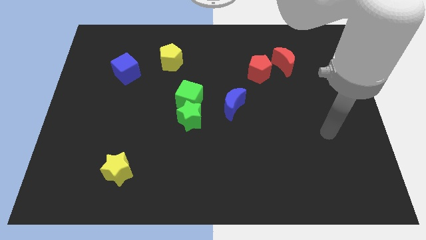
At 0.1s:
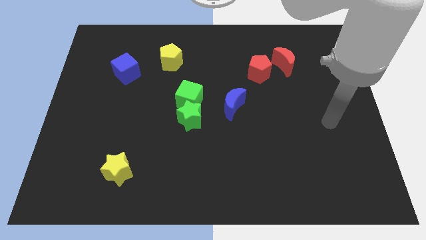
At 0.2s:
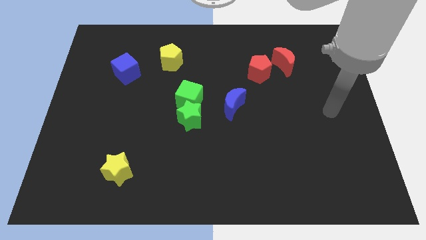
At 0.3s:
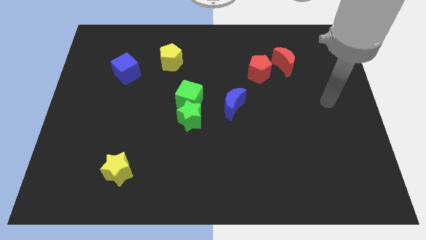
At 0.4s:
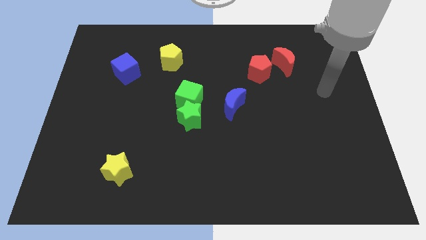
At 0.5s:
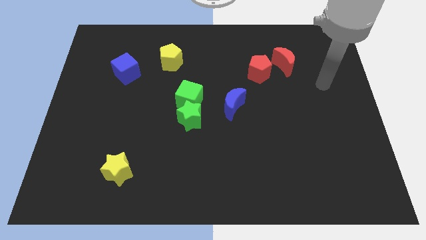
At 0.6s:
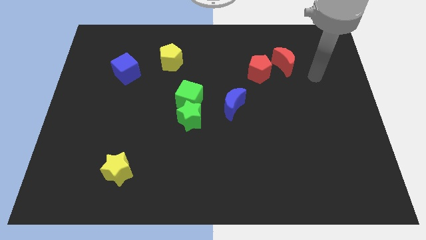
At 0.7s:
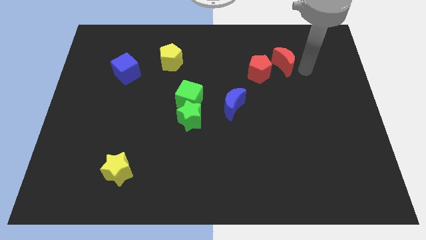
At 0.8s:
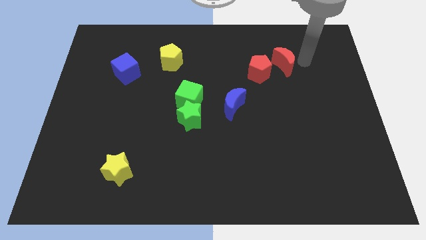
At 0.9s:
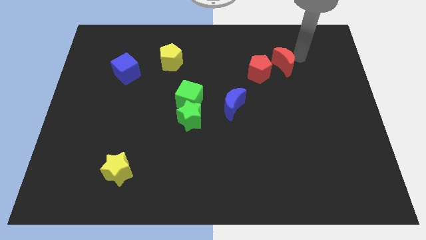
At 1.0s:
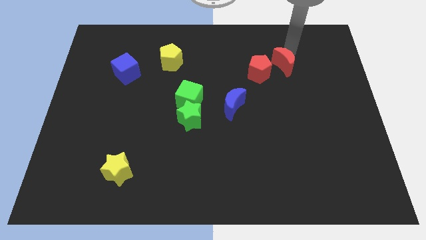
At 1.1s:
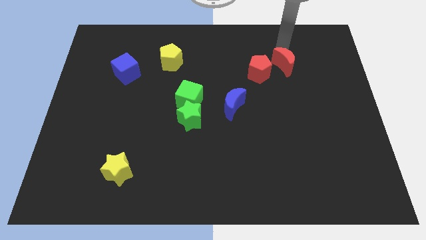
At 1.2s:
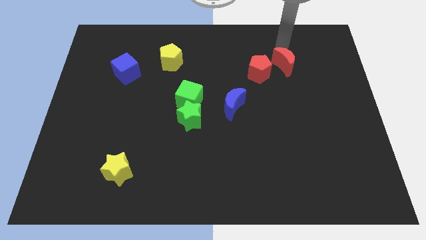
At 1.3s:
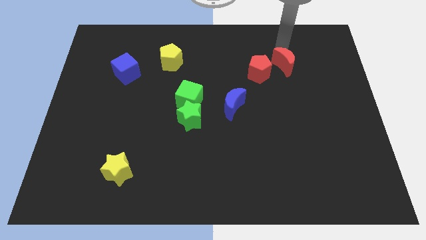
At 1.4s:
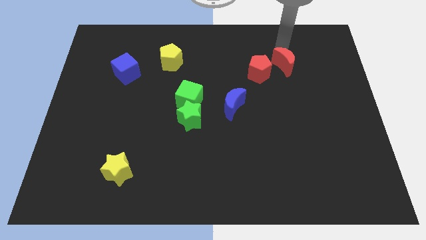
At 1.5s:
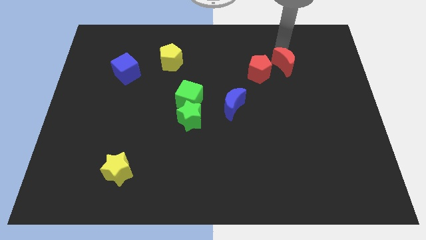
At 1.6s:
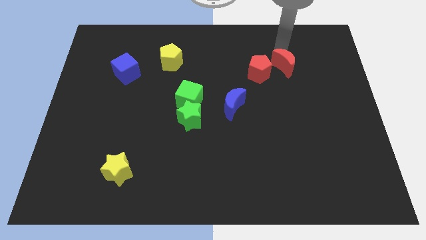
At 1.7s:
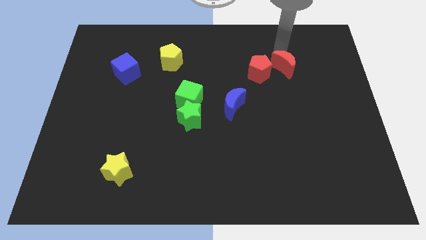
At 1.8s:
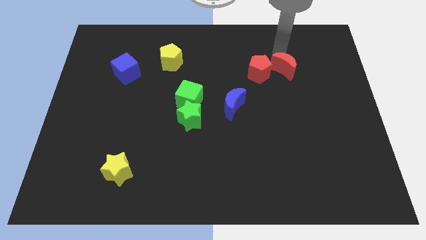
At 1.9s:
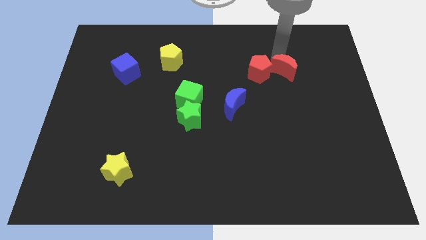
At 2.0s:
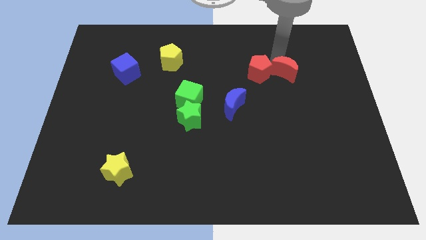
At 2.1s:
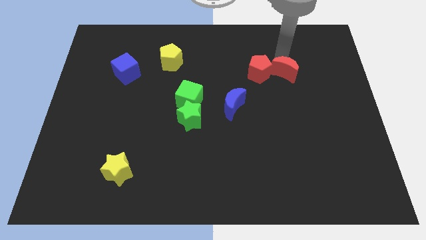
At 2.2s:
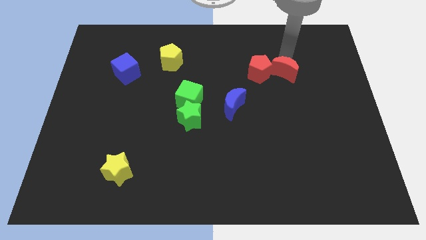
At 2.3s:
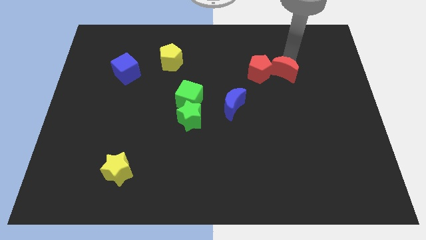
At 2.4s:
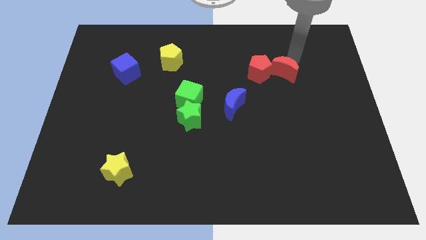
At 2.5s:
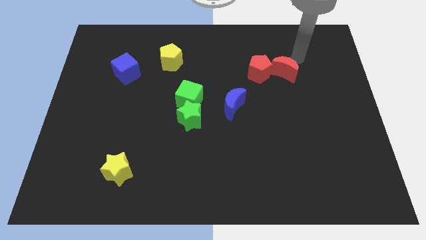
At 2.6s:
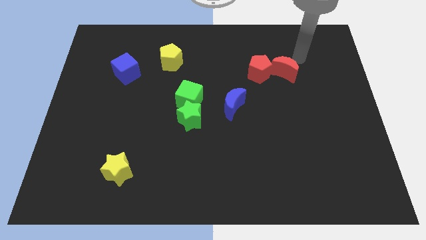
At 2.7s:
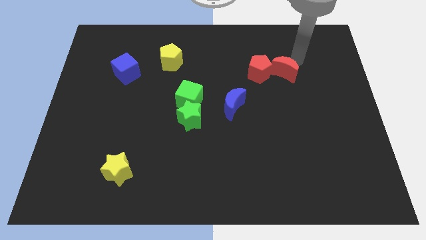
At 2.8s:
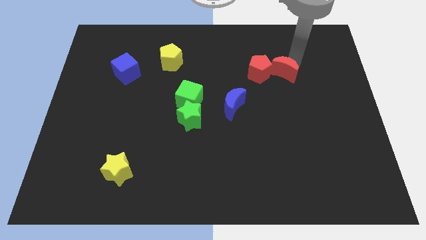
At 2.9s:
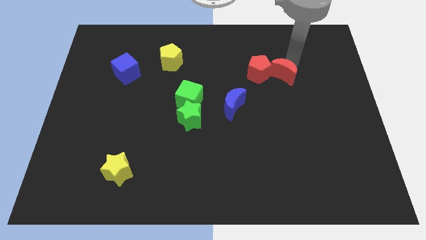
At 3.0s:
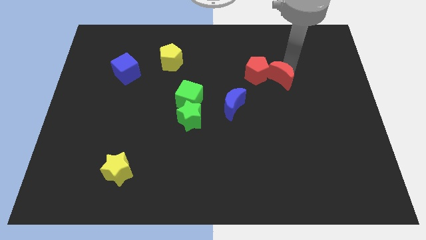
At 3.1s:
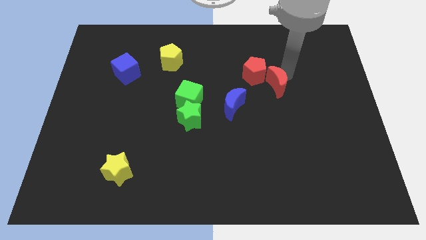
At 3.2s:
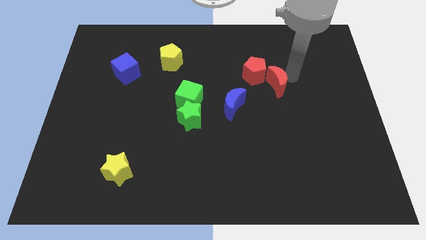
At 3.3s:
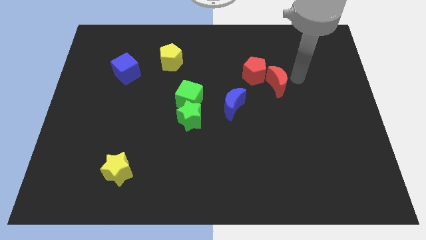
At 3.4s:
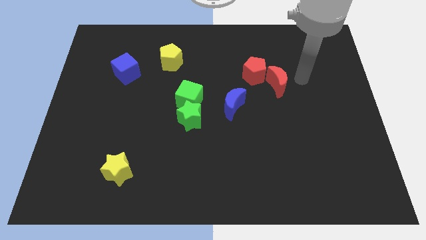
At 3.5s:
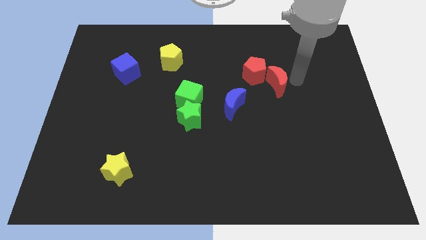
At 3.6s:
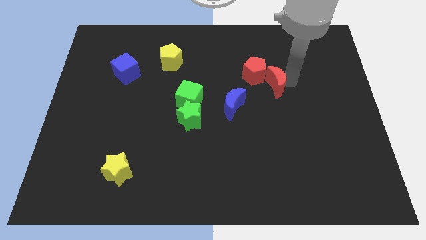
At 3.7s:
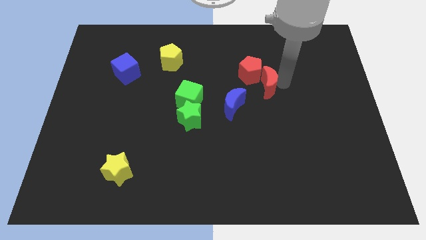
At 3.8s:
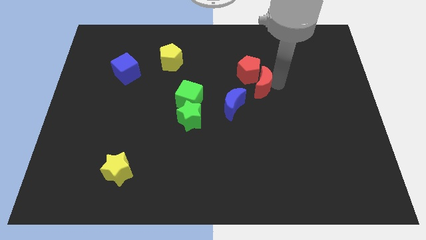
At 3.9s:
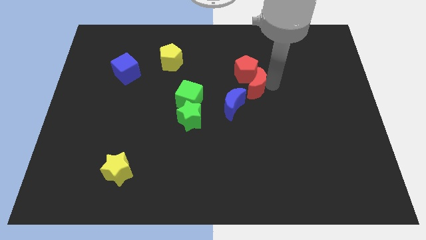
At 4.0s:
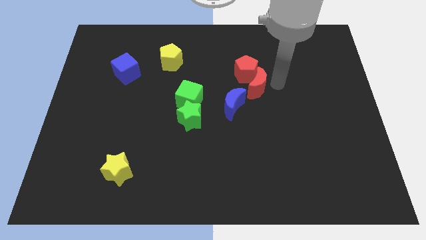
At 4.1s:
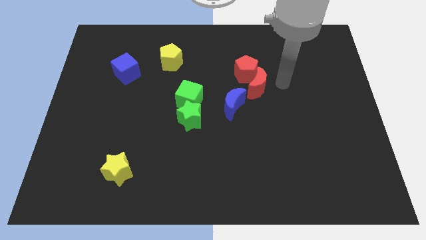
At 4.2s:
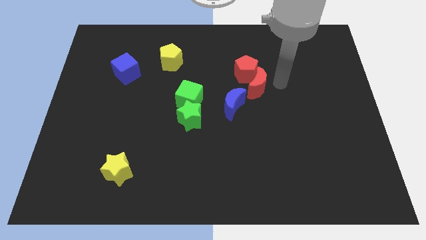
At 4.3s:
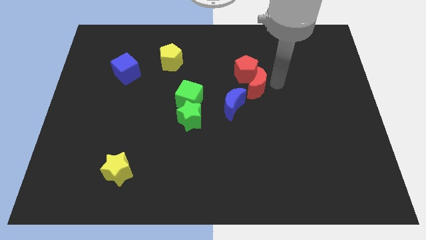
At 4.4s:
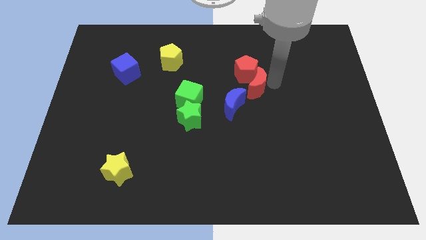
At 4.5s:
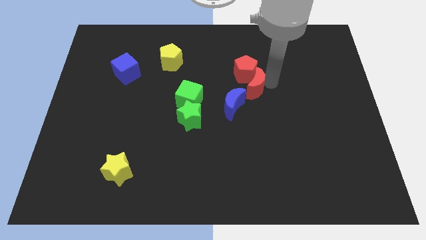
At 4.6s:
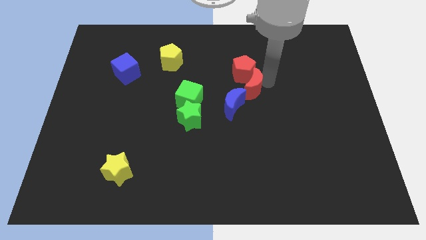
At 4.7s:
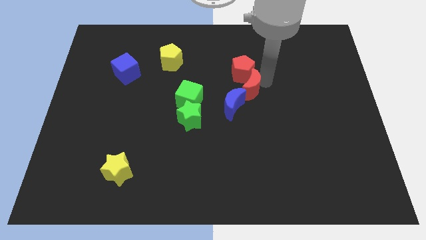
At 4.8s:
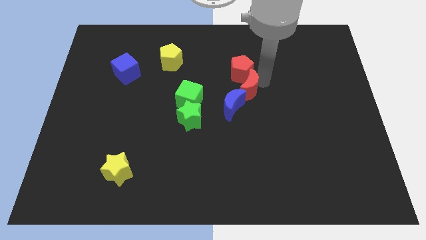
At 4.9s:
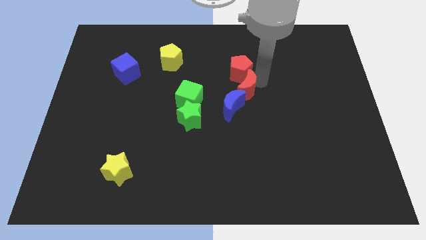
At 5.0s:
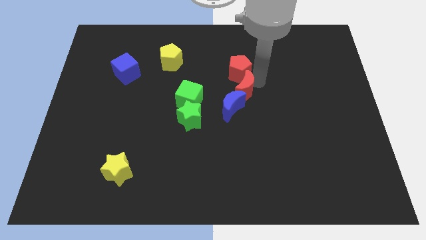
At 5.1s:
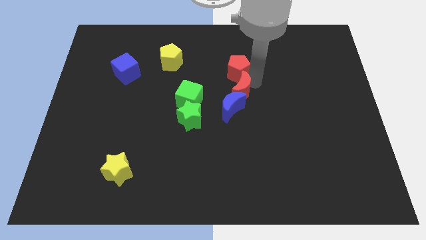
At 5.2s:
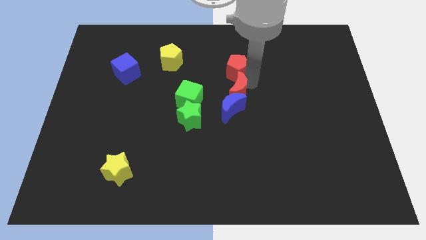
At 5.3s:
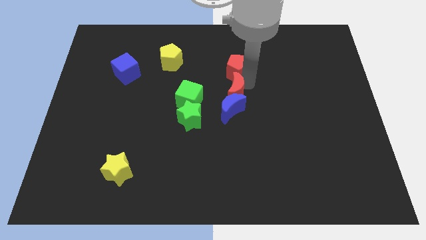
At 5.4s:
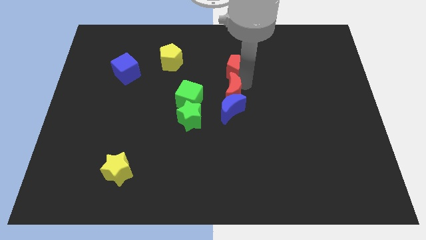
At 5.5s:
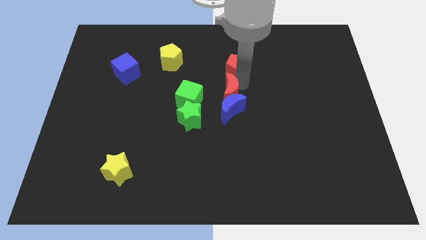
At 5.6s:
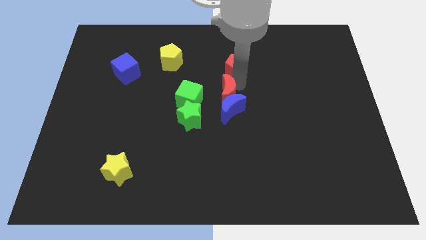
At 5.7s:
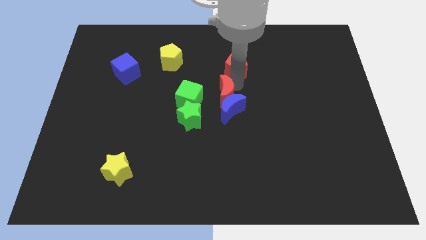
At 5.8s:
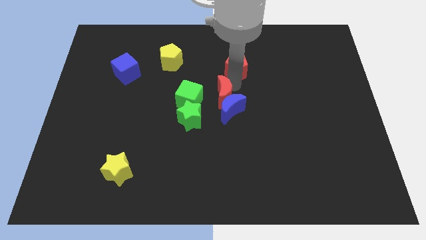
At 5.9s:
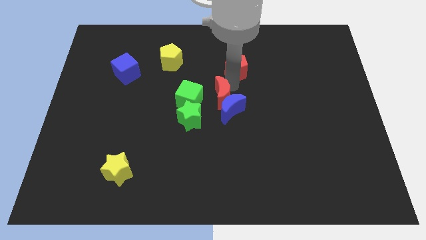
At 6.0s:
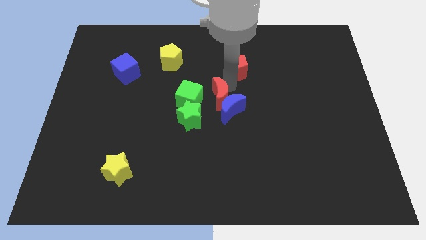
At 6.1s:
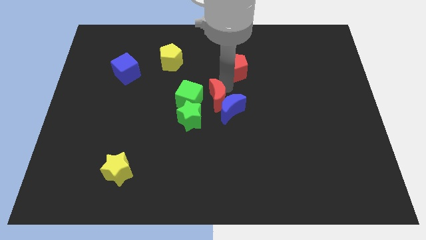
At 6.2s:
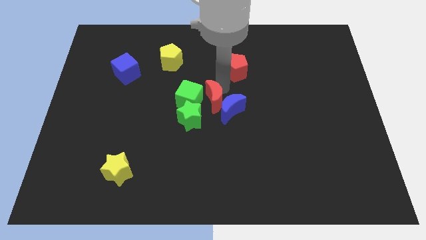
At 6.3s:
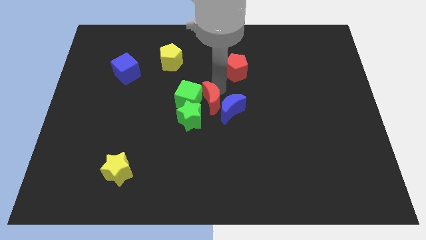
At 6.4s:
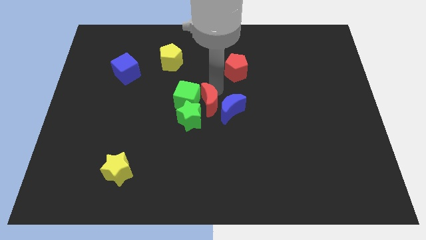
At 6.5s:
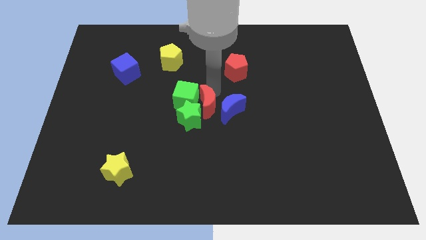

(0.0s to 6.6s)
move the red moon to the green star

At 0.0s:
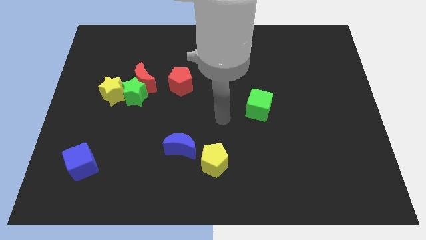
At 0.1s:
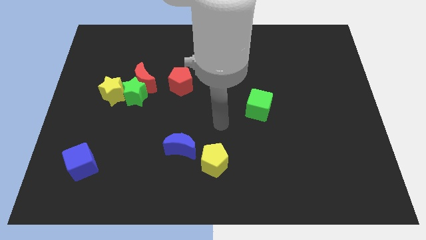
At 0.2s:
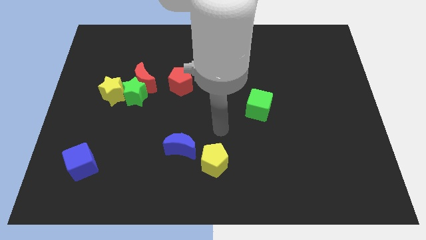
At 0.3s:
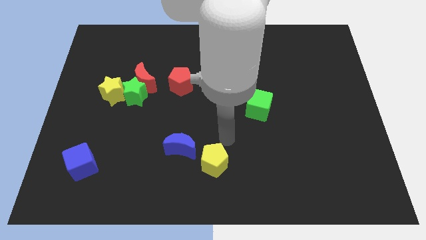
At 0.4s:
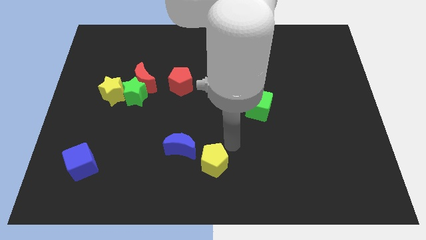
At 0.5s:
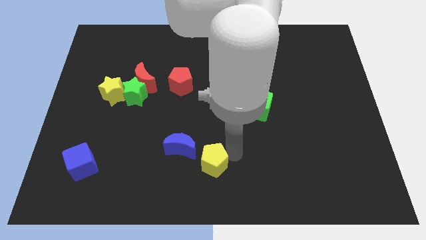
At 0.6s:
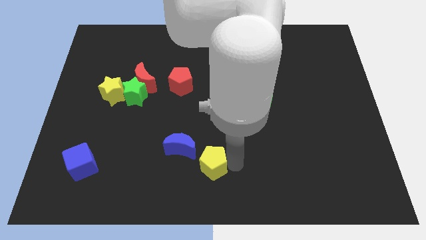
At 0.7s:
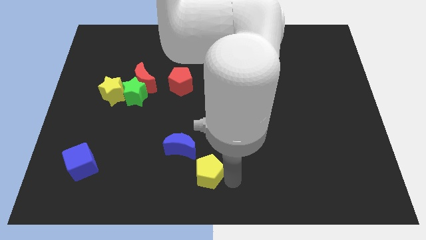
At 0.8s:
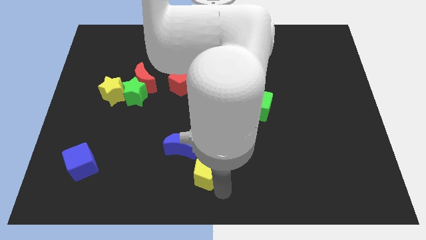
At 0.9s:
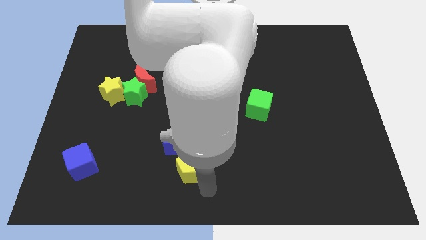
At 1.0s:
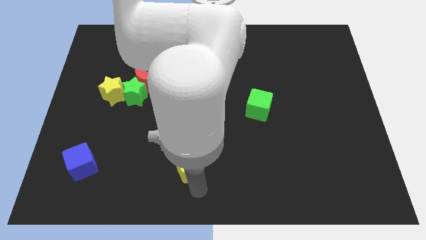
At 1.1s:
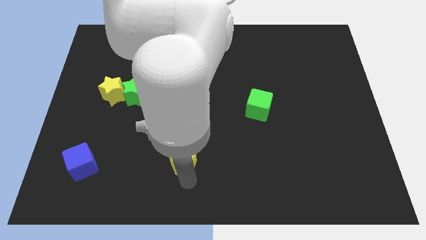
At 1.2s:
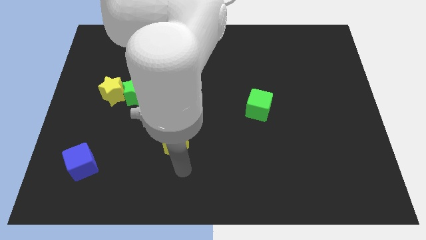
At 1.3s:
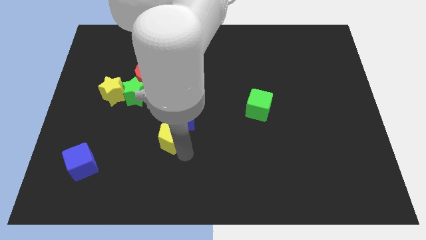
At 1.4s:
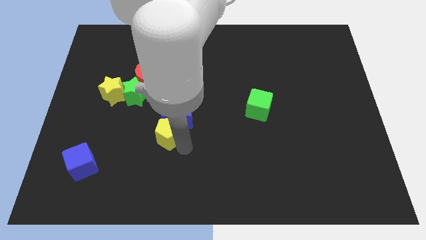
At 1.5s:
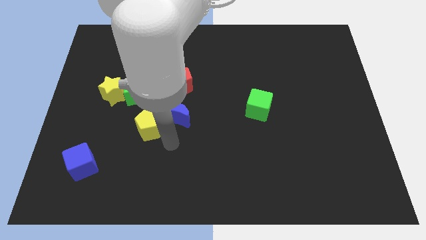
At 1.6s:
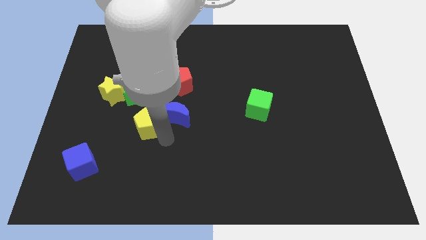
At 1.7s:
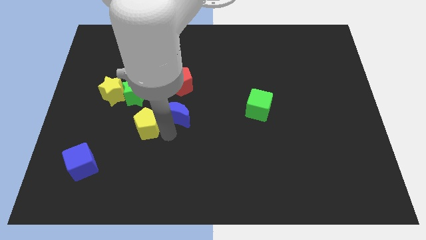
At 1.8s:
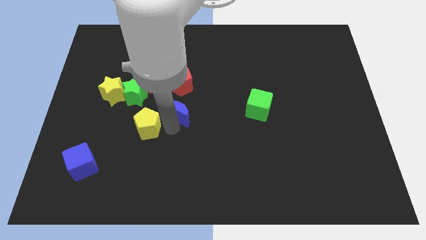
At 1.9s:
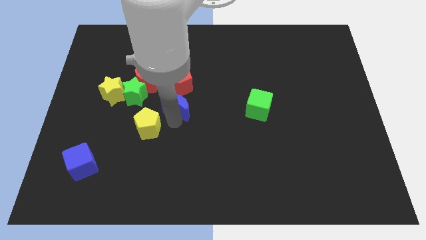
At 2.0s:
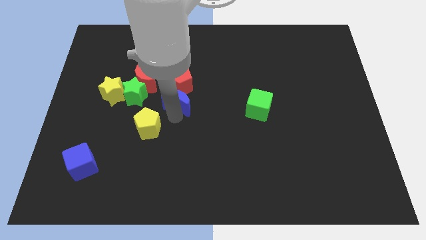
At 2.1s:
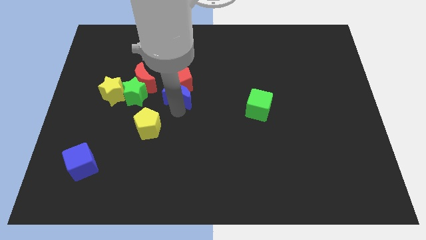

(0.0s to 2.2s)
slide the blue moon to the red pentagon
